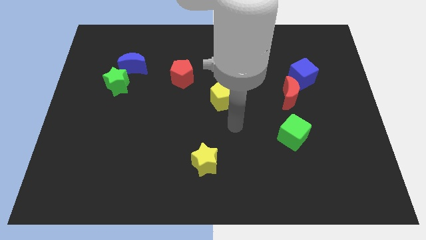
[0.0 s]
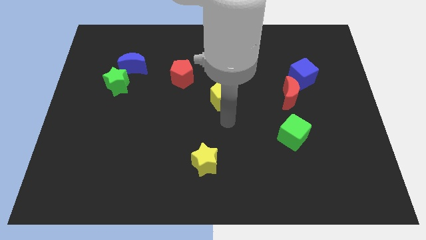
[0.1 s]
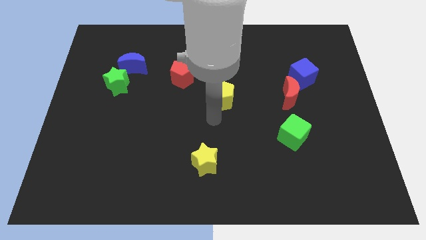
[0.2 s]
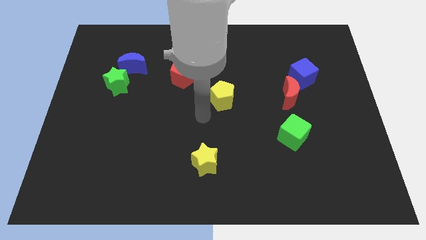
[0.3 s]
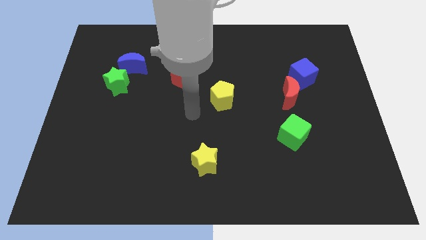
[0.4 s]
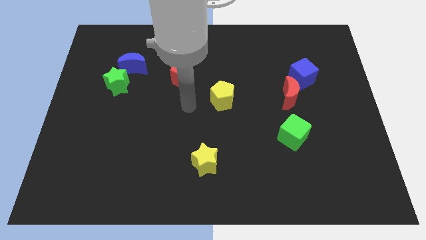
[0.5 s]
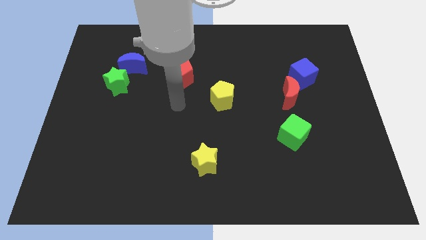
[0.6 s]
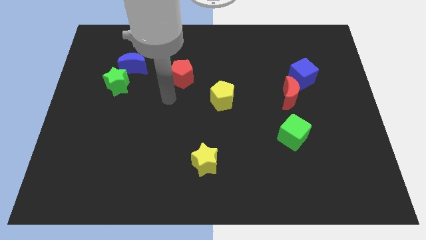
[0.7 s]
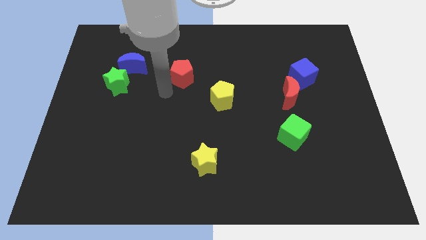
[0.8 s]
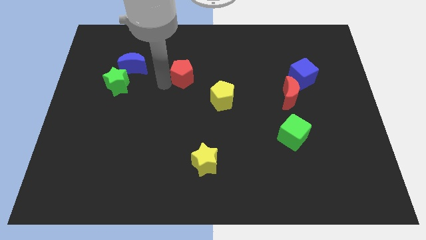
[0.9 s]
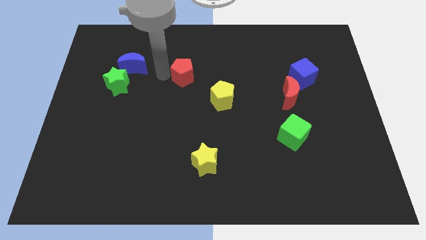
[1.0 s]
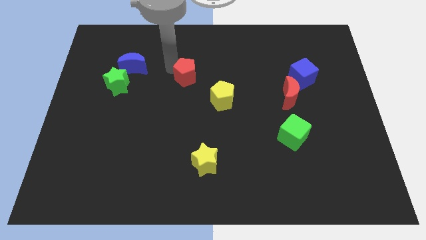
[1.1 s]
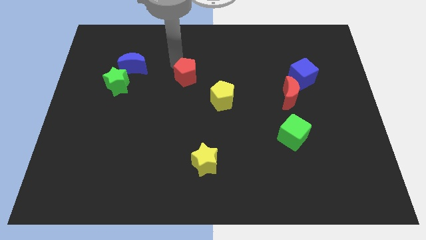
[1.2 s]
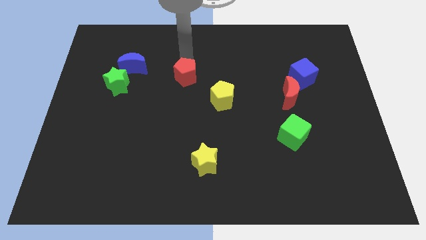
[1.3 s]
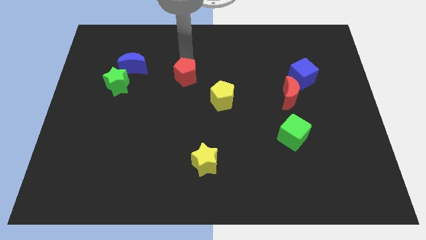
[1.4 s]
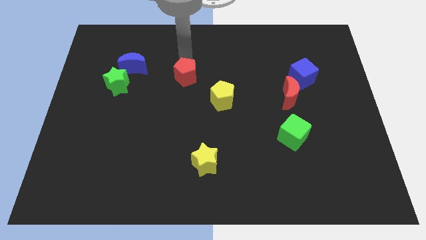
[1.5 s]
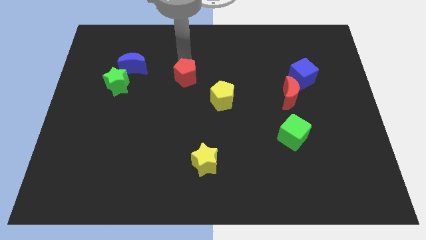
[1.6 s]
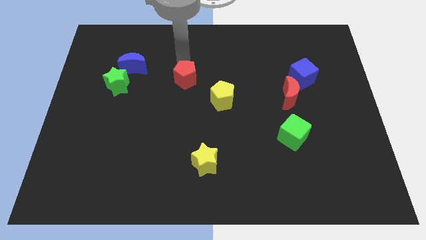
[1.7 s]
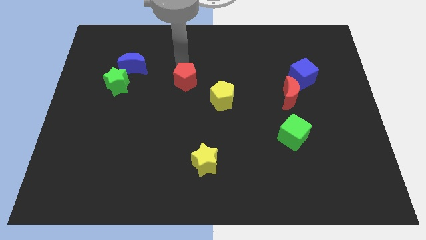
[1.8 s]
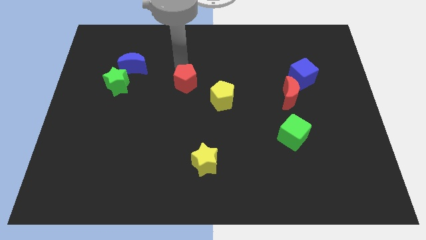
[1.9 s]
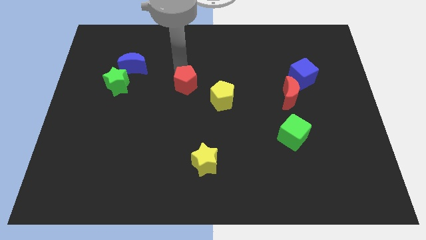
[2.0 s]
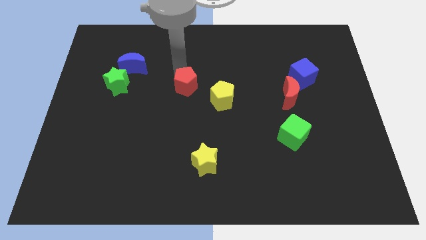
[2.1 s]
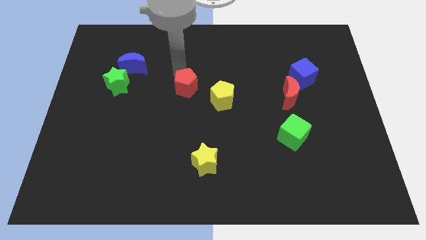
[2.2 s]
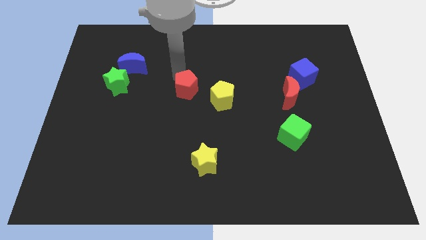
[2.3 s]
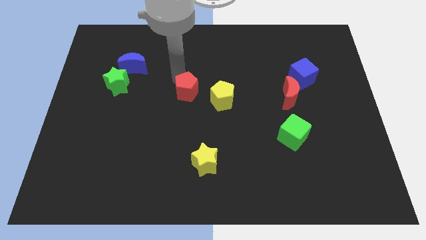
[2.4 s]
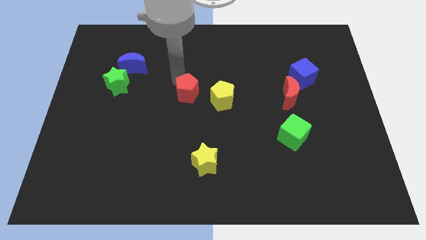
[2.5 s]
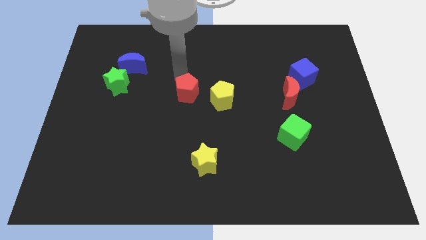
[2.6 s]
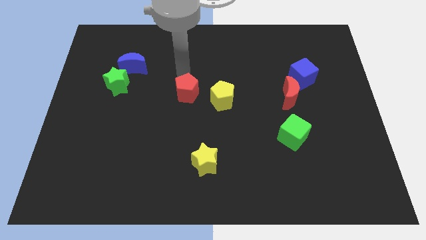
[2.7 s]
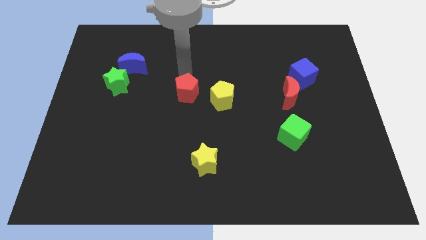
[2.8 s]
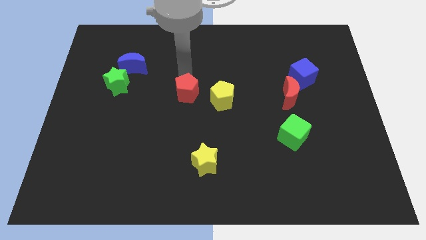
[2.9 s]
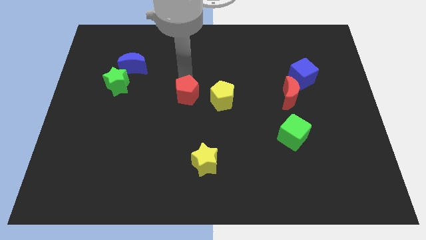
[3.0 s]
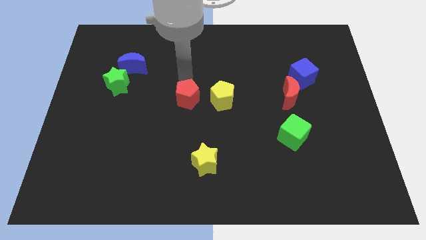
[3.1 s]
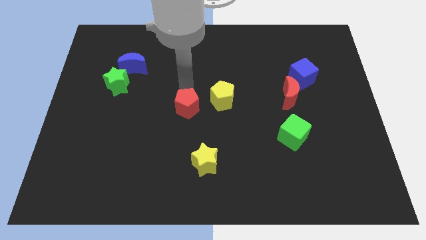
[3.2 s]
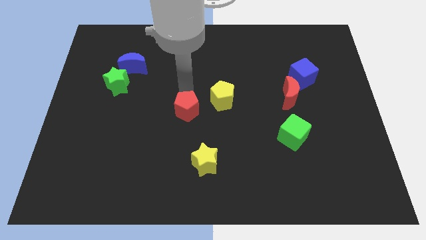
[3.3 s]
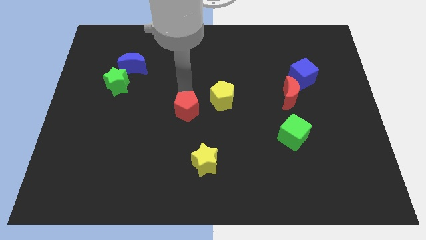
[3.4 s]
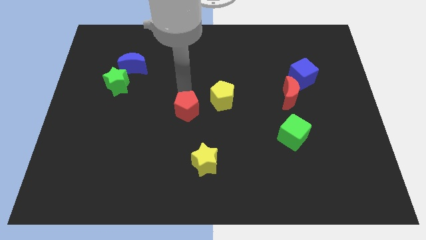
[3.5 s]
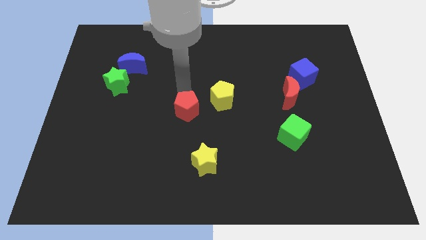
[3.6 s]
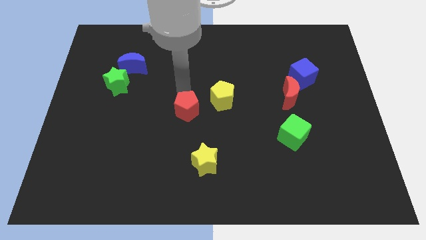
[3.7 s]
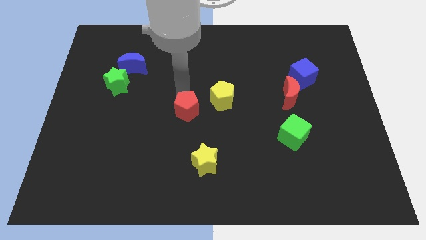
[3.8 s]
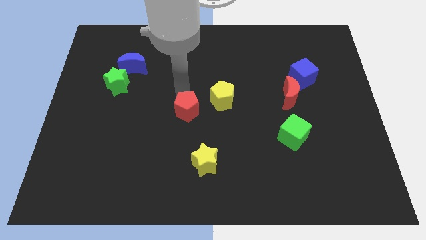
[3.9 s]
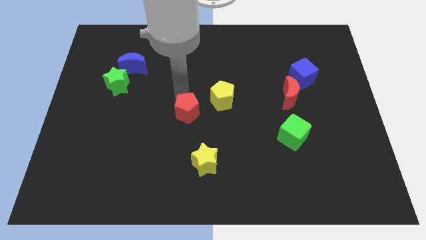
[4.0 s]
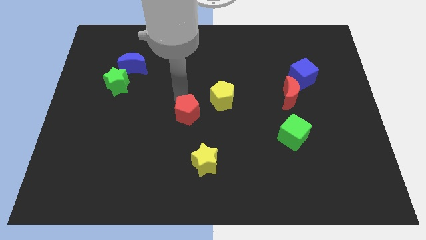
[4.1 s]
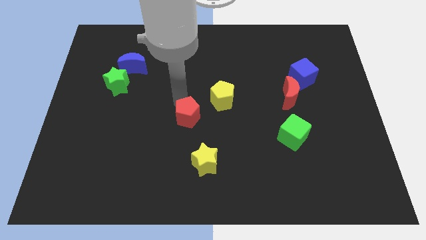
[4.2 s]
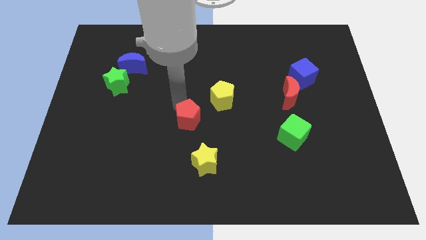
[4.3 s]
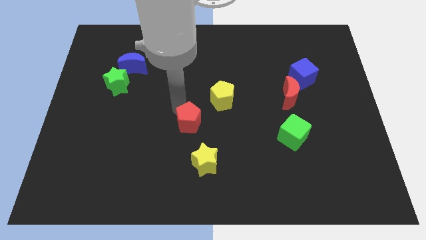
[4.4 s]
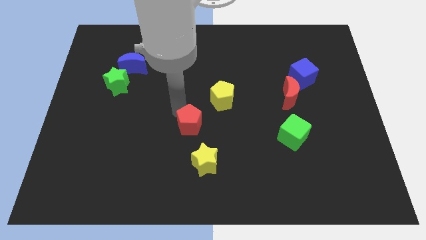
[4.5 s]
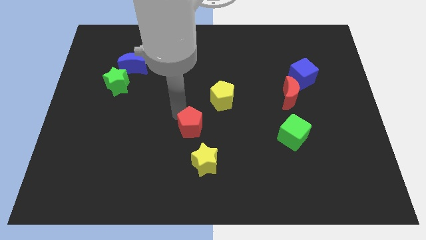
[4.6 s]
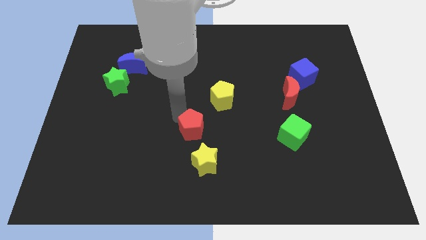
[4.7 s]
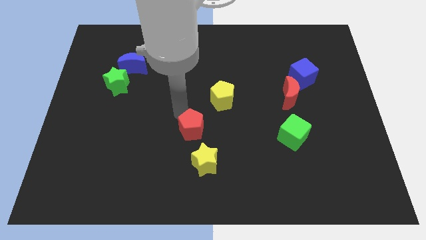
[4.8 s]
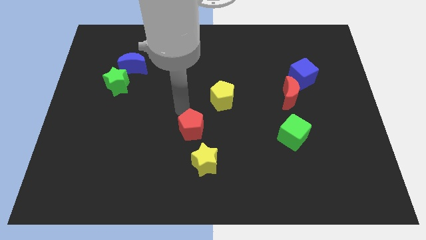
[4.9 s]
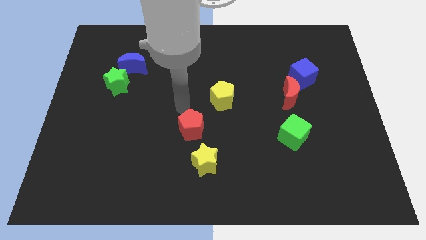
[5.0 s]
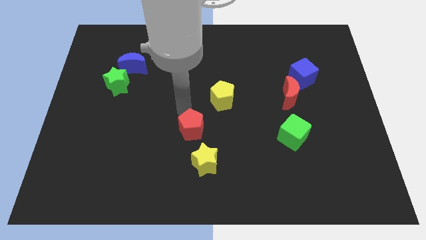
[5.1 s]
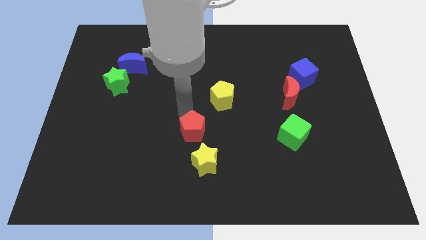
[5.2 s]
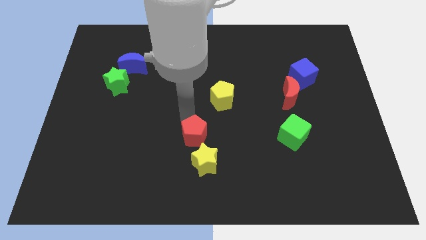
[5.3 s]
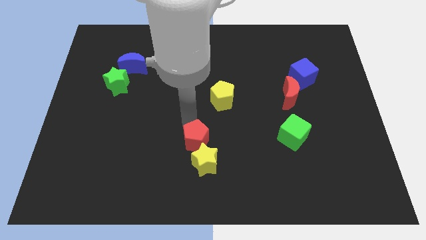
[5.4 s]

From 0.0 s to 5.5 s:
move the red pentagon to the yellow star

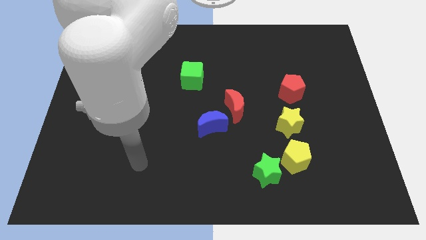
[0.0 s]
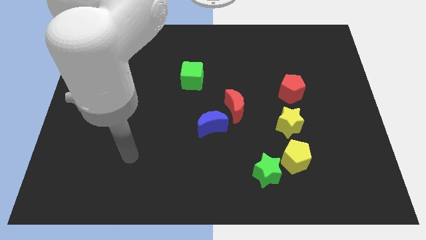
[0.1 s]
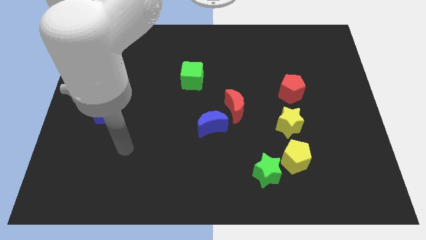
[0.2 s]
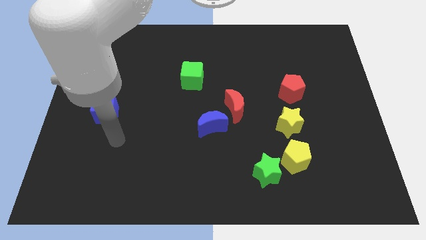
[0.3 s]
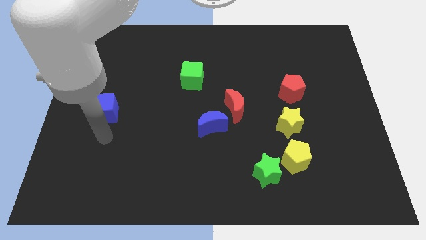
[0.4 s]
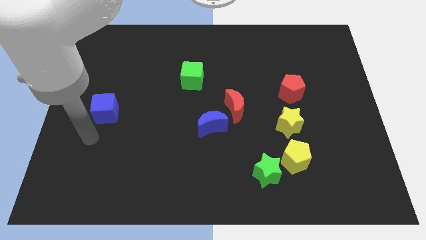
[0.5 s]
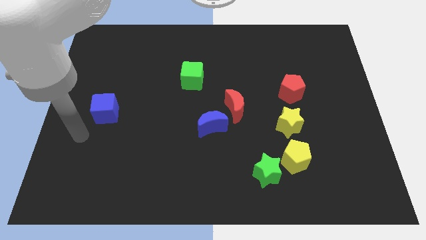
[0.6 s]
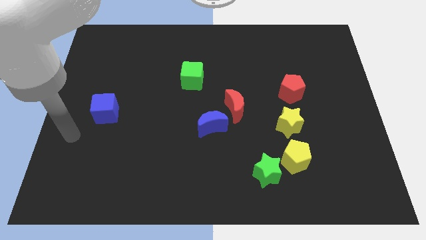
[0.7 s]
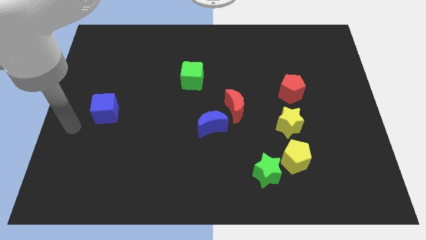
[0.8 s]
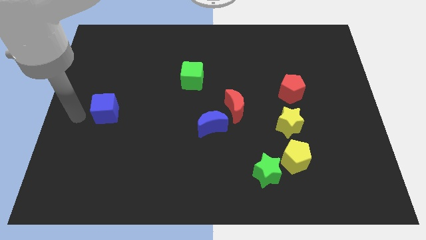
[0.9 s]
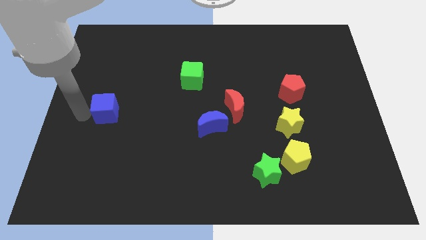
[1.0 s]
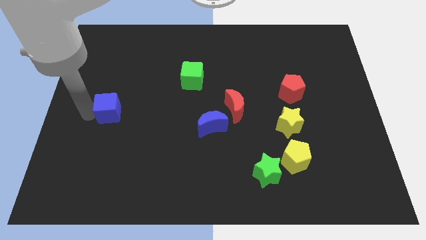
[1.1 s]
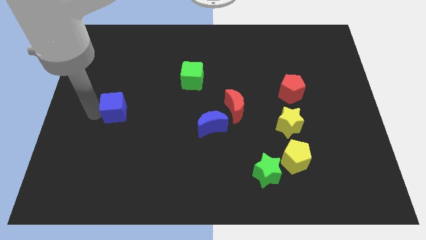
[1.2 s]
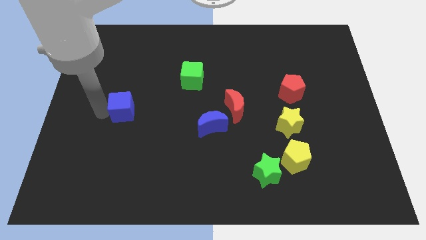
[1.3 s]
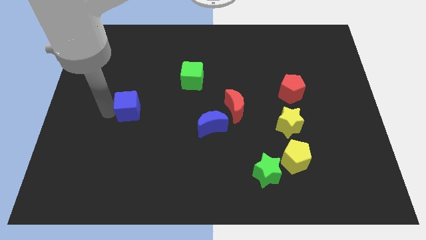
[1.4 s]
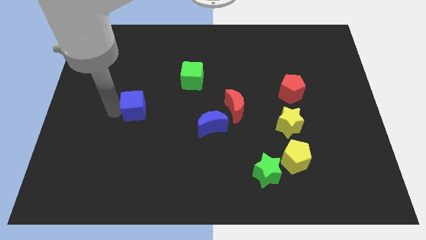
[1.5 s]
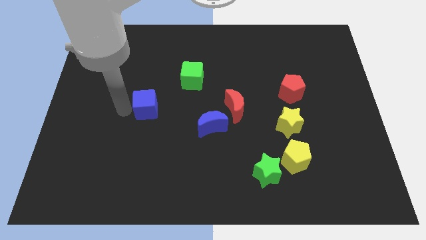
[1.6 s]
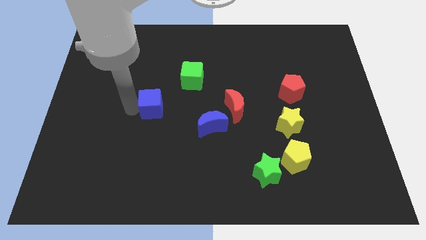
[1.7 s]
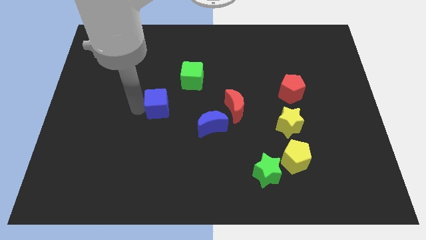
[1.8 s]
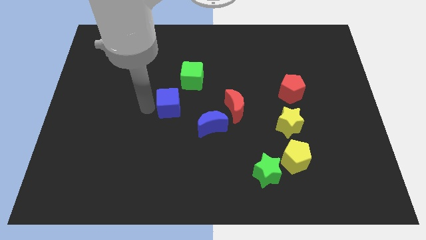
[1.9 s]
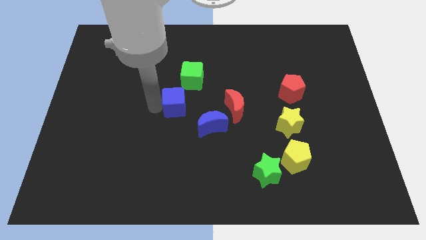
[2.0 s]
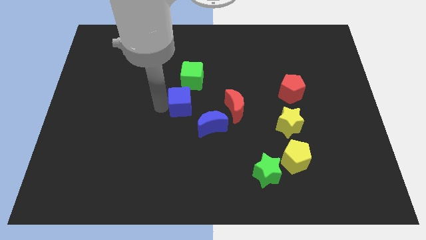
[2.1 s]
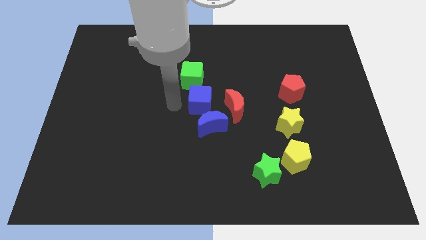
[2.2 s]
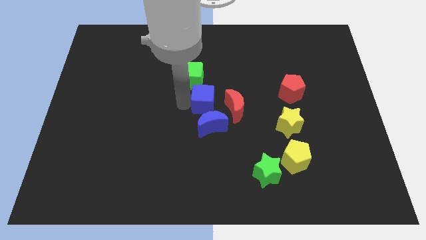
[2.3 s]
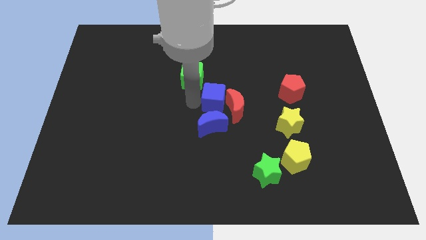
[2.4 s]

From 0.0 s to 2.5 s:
slide the blue cube to the red moon
